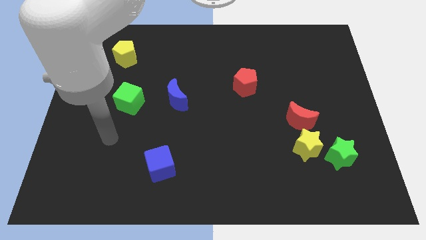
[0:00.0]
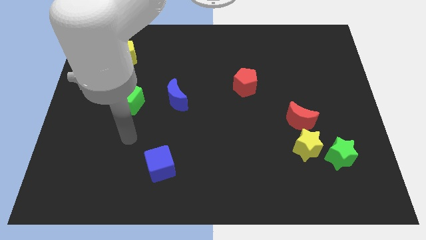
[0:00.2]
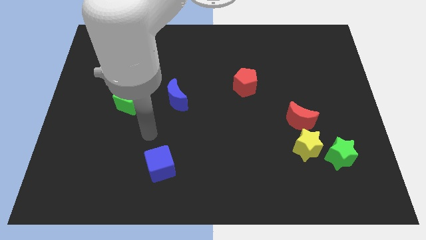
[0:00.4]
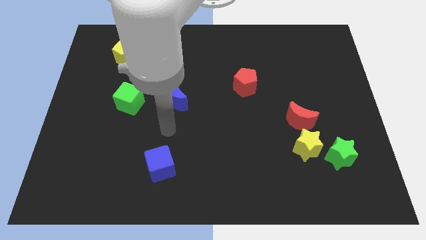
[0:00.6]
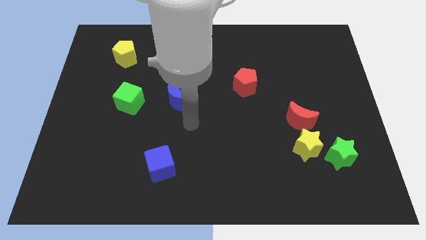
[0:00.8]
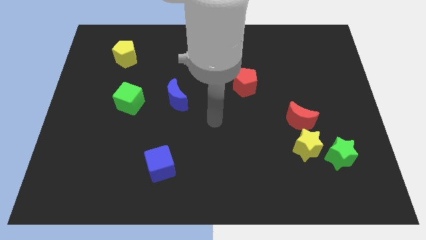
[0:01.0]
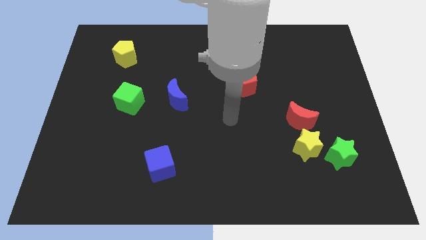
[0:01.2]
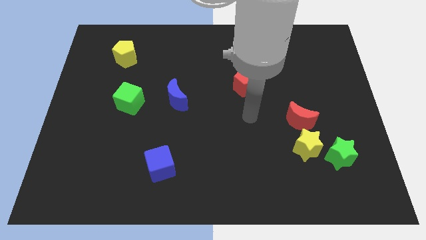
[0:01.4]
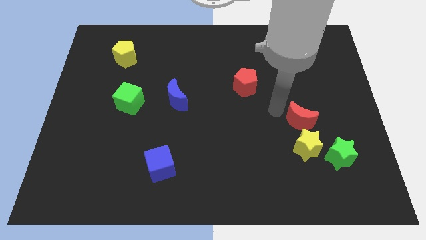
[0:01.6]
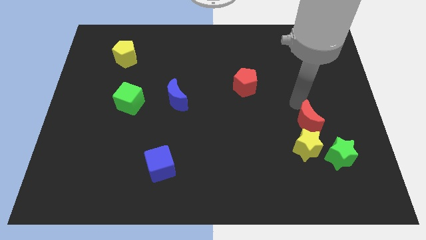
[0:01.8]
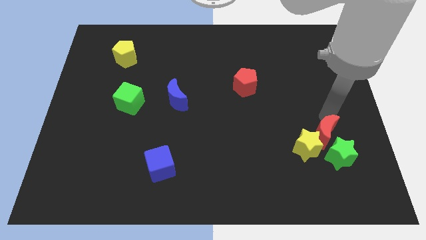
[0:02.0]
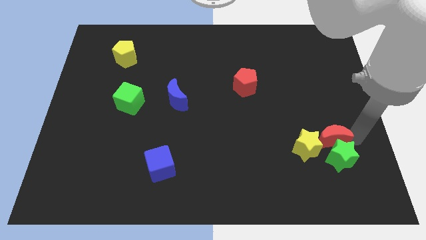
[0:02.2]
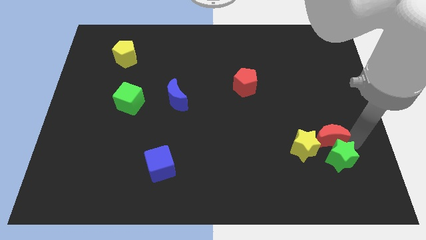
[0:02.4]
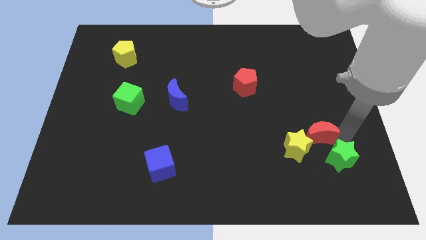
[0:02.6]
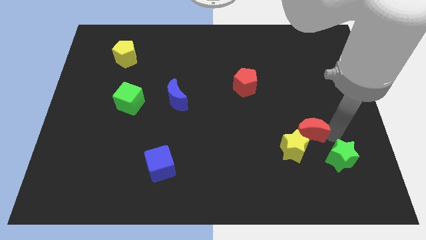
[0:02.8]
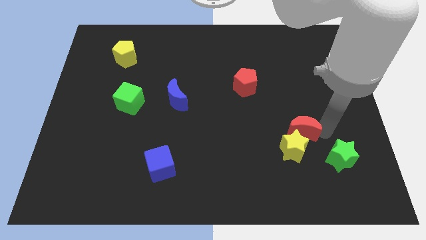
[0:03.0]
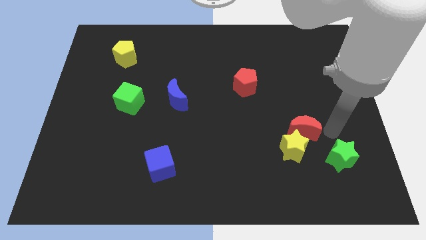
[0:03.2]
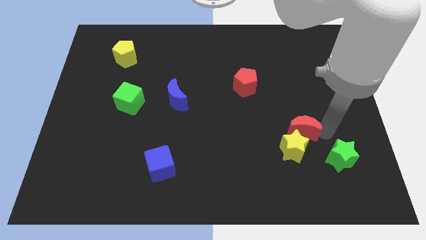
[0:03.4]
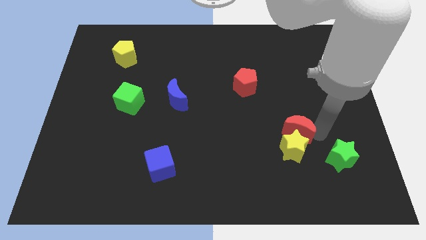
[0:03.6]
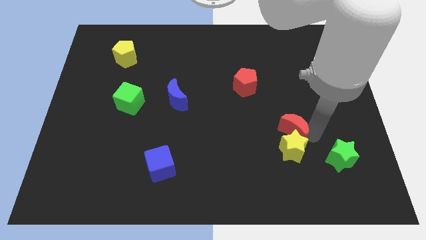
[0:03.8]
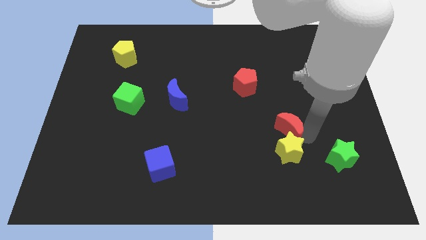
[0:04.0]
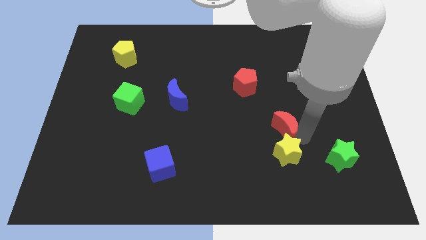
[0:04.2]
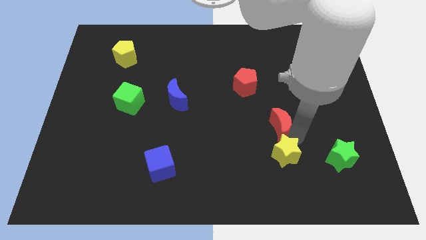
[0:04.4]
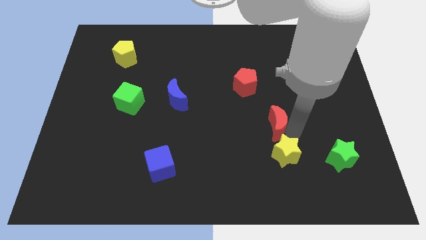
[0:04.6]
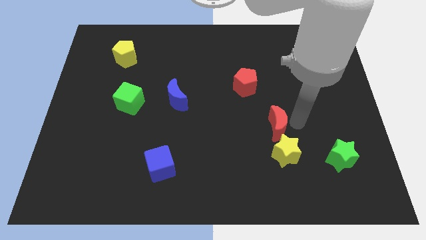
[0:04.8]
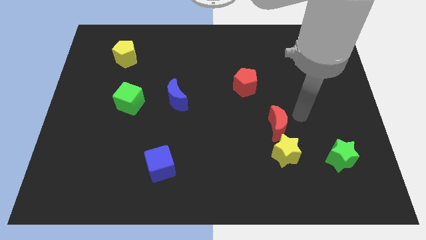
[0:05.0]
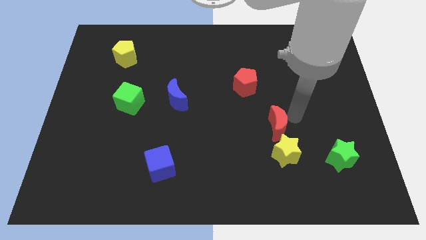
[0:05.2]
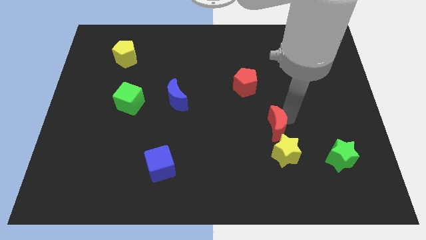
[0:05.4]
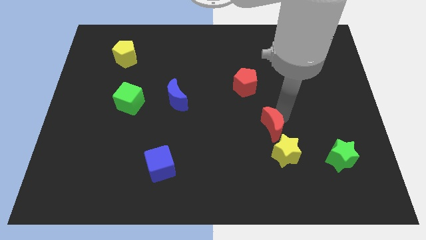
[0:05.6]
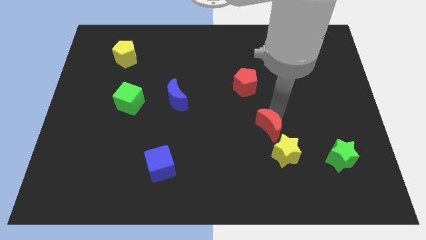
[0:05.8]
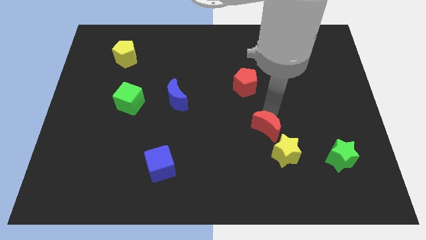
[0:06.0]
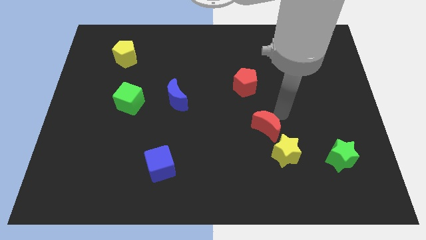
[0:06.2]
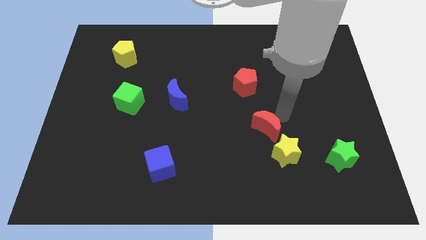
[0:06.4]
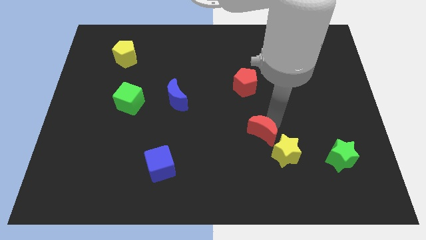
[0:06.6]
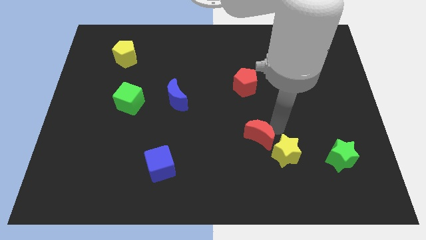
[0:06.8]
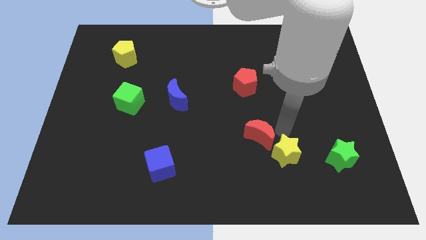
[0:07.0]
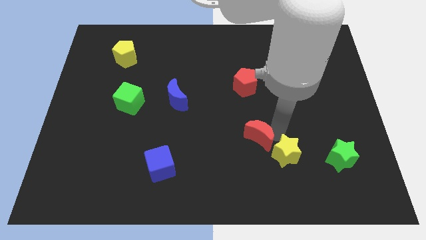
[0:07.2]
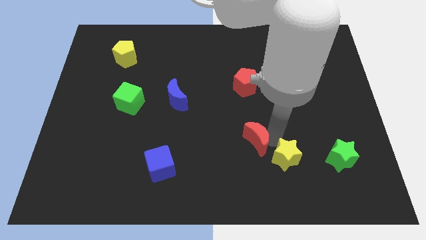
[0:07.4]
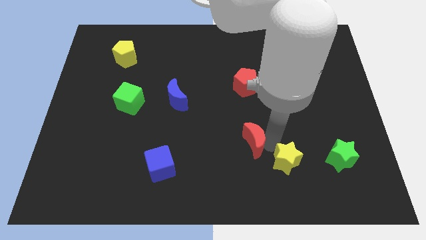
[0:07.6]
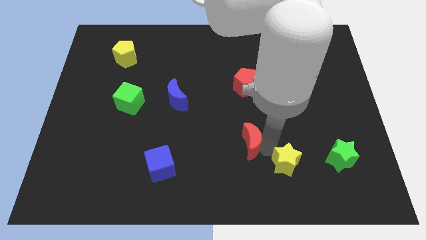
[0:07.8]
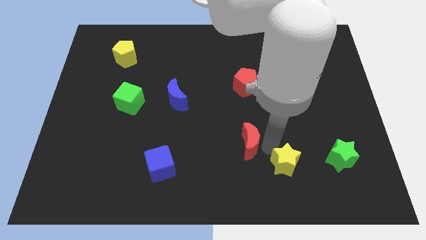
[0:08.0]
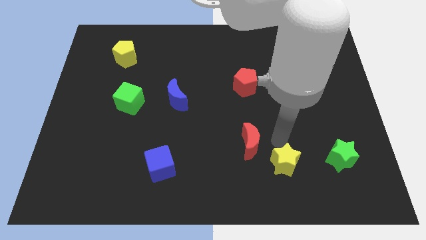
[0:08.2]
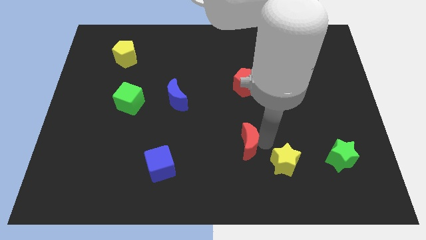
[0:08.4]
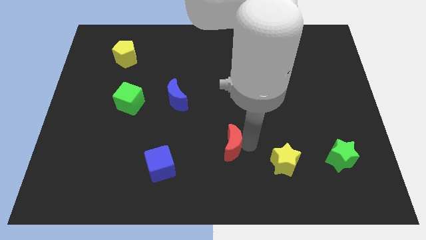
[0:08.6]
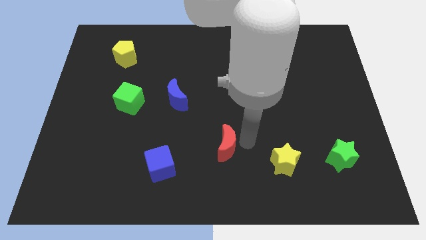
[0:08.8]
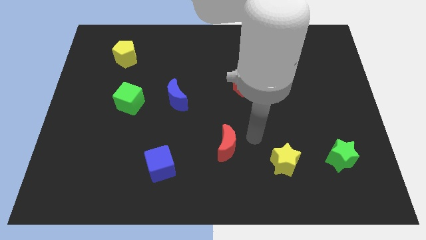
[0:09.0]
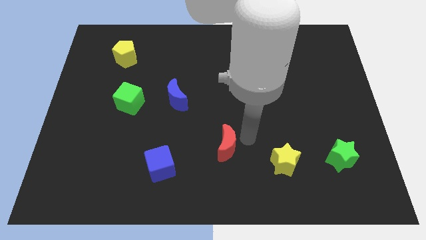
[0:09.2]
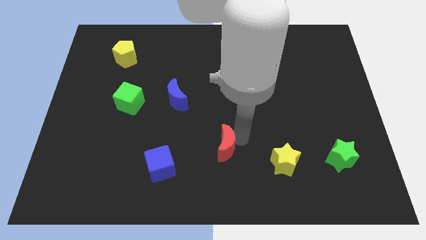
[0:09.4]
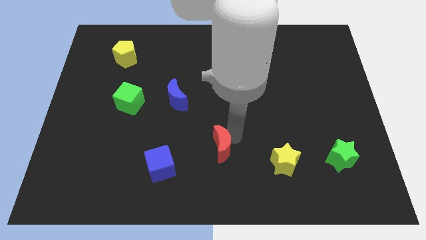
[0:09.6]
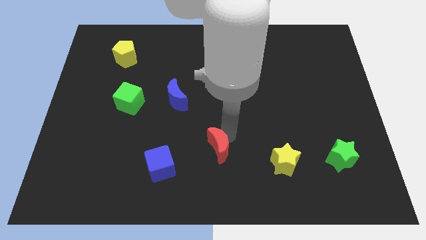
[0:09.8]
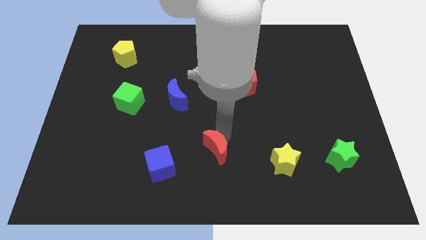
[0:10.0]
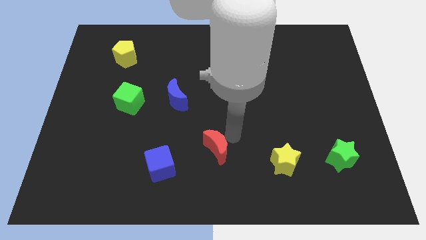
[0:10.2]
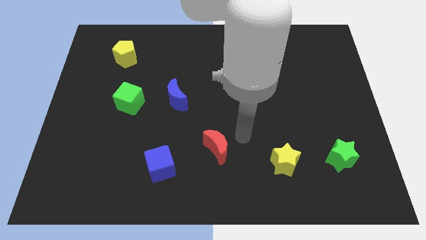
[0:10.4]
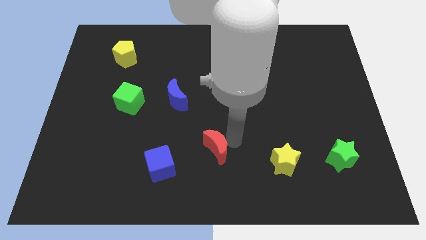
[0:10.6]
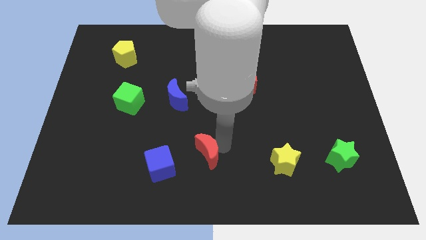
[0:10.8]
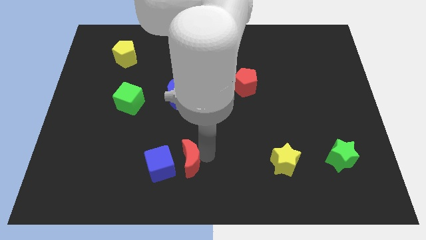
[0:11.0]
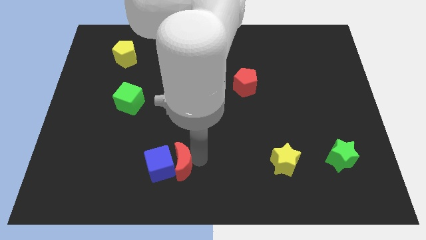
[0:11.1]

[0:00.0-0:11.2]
push the red moon to the blue cube

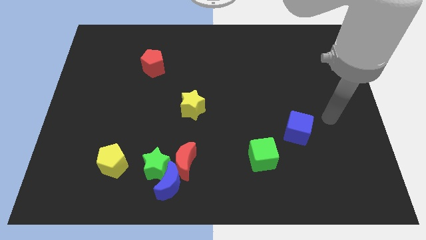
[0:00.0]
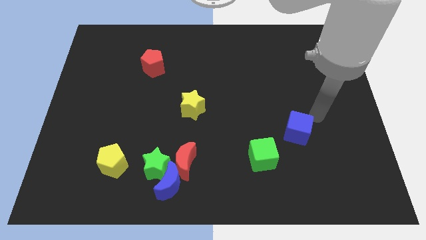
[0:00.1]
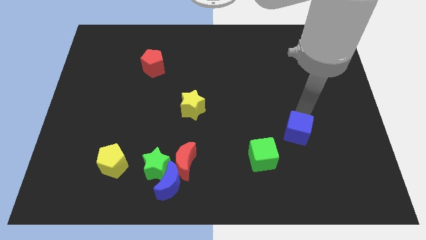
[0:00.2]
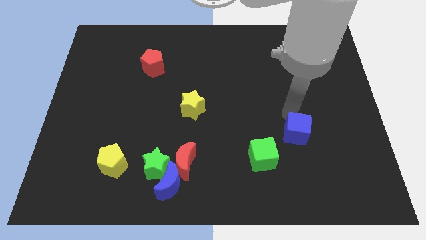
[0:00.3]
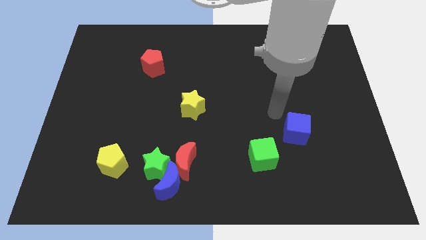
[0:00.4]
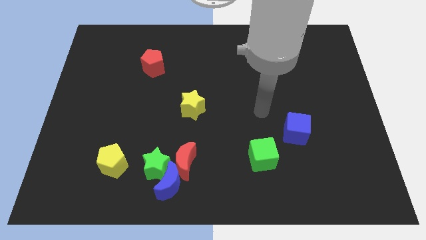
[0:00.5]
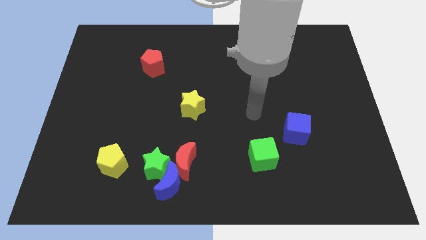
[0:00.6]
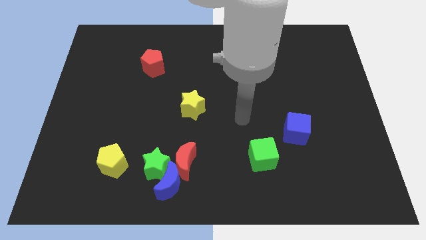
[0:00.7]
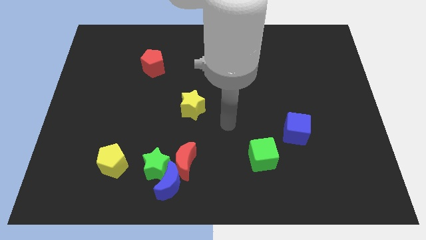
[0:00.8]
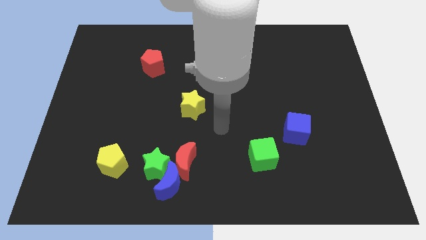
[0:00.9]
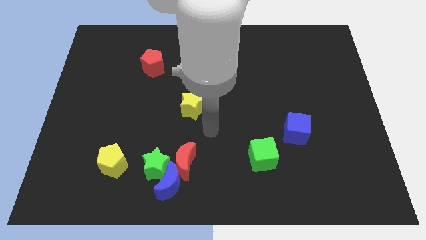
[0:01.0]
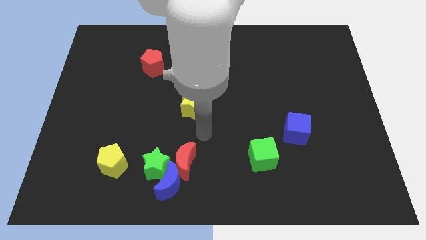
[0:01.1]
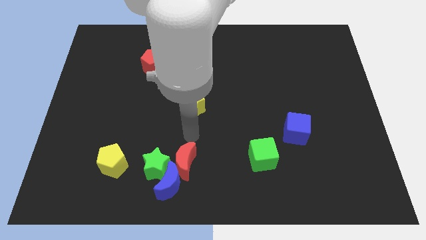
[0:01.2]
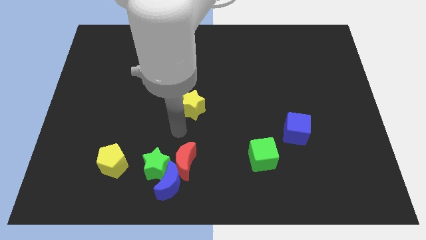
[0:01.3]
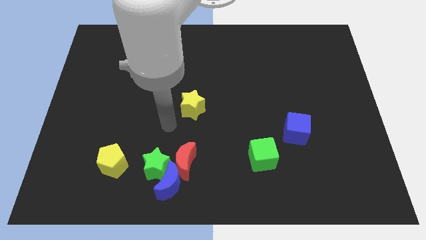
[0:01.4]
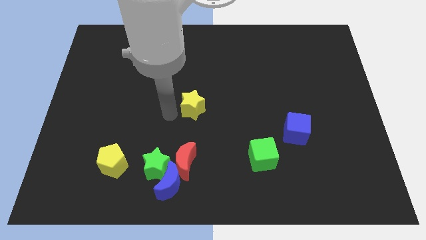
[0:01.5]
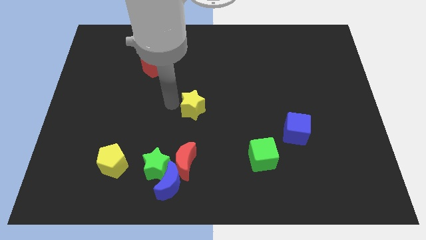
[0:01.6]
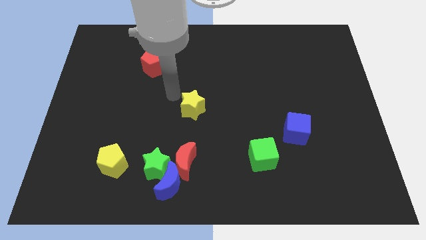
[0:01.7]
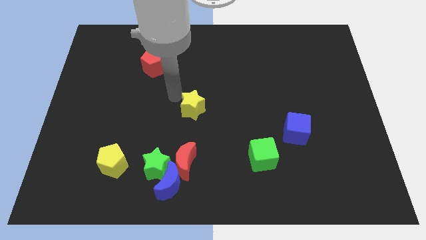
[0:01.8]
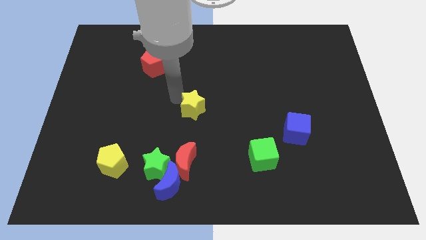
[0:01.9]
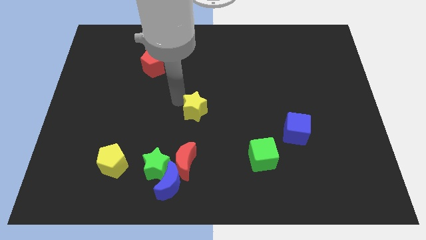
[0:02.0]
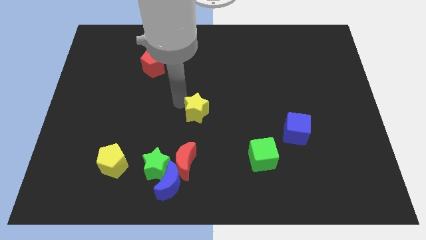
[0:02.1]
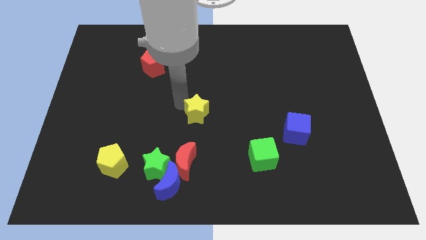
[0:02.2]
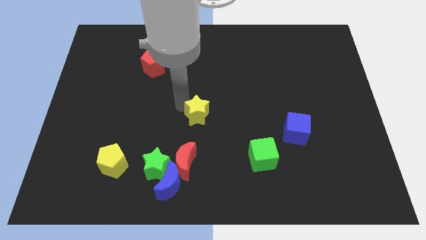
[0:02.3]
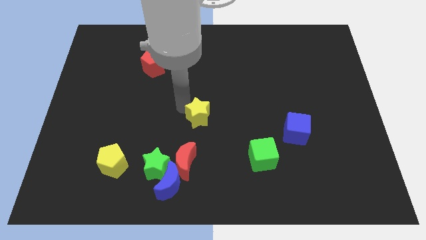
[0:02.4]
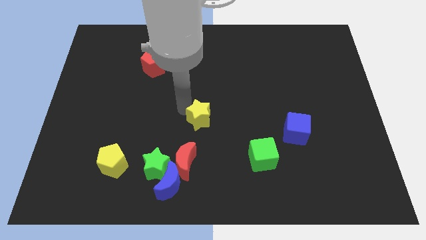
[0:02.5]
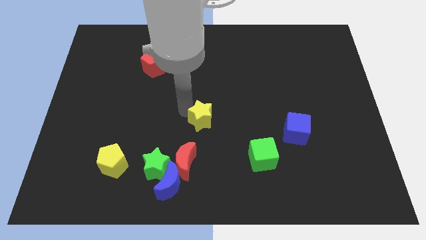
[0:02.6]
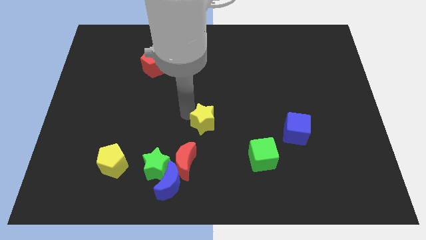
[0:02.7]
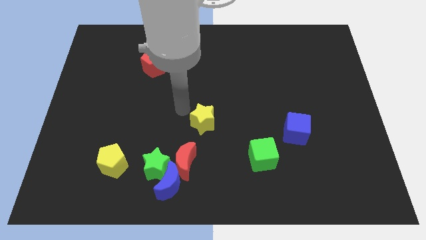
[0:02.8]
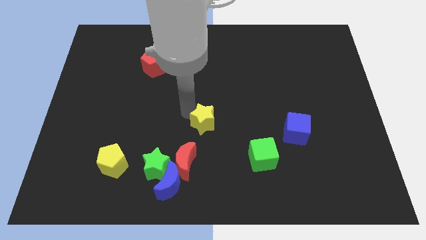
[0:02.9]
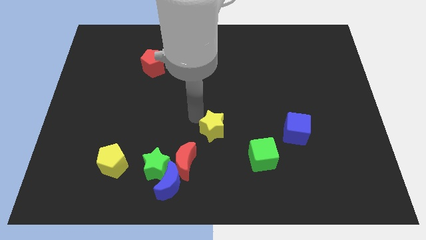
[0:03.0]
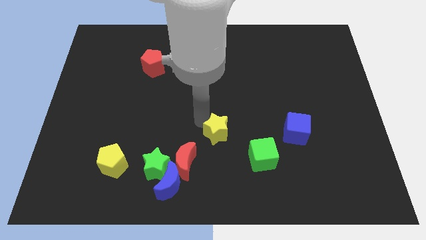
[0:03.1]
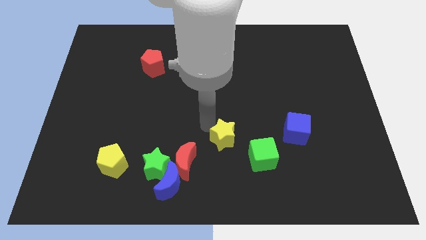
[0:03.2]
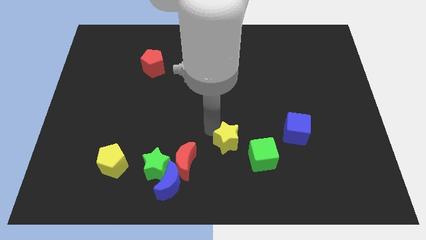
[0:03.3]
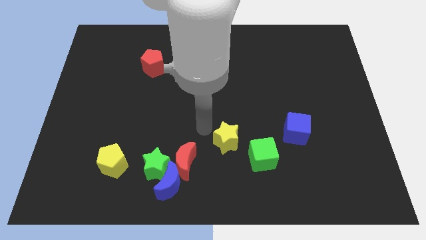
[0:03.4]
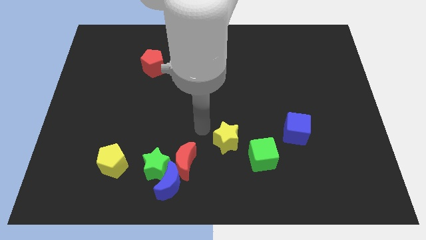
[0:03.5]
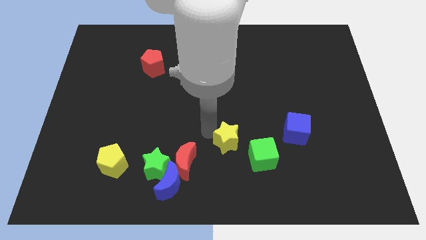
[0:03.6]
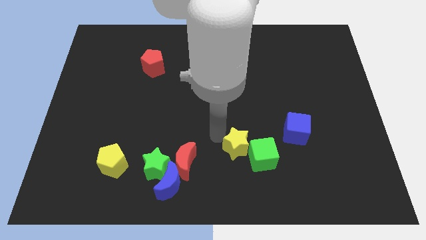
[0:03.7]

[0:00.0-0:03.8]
push the yellow star to the green cube
